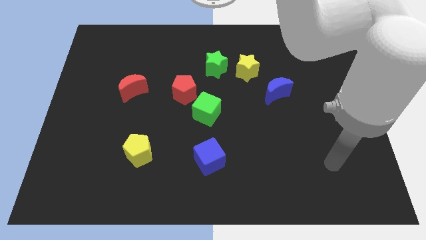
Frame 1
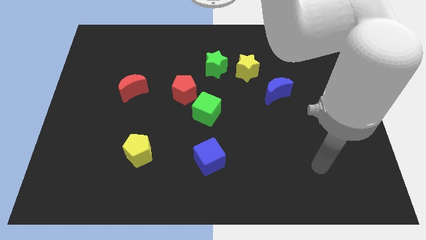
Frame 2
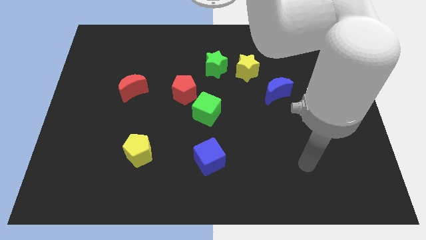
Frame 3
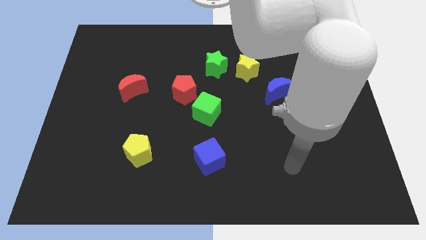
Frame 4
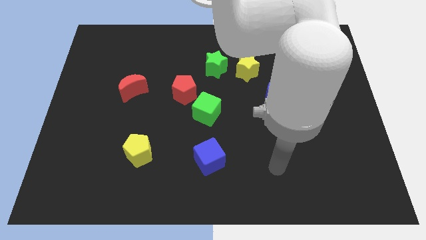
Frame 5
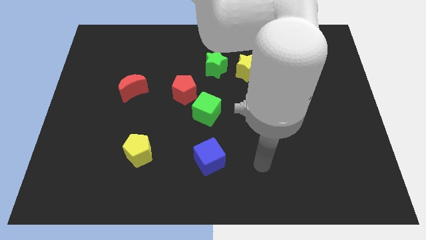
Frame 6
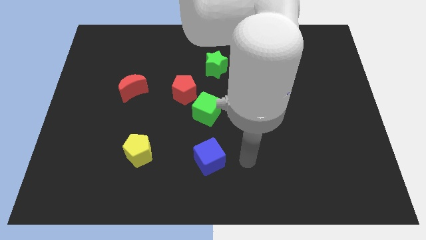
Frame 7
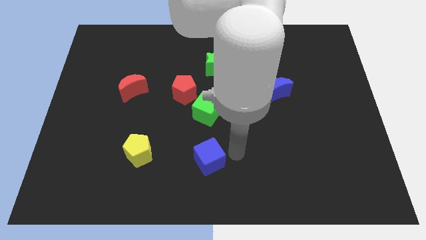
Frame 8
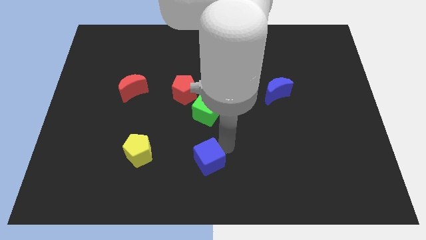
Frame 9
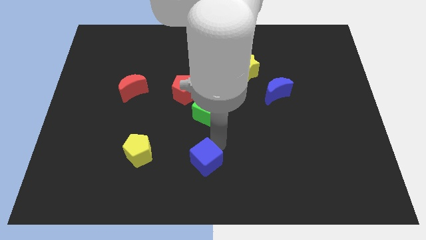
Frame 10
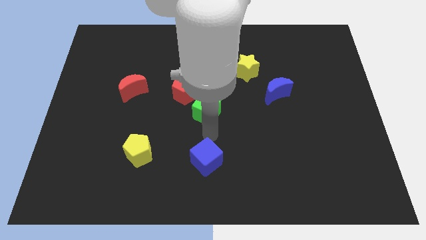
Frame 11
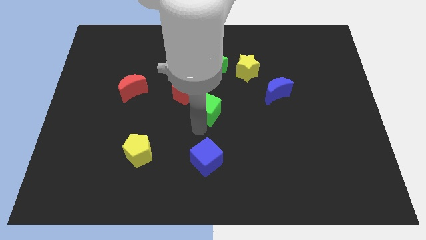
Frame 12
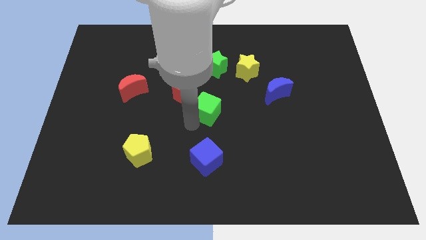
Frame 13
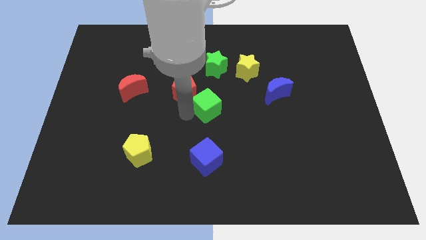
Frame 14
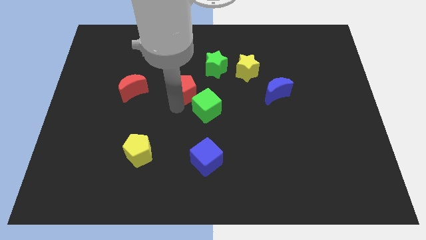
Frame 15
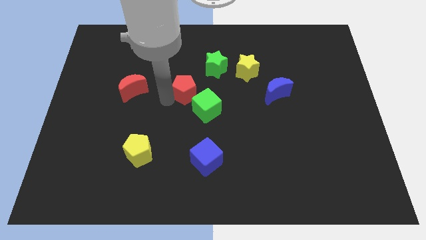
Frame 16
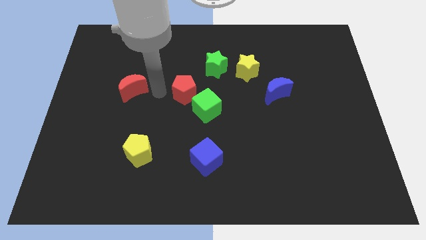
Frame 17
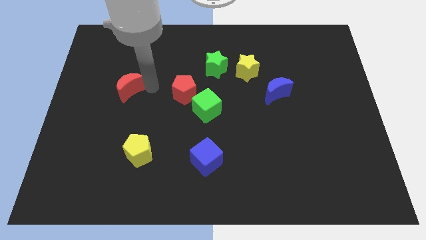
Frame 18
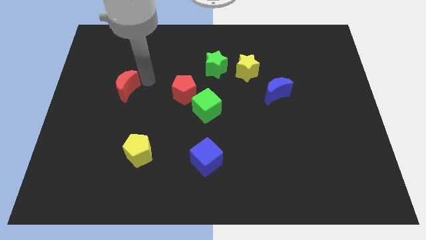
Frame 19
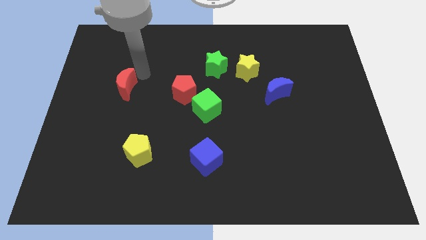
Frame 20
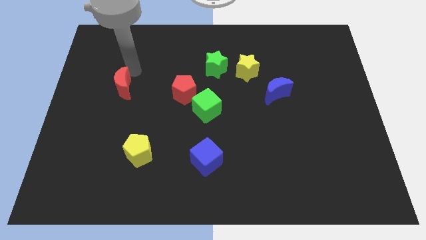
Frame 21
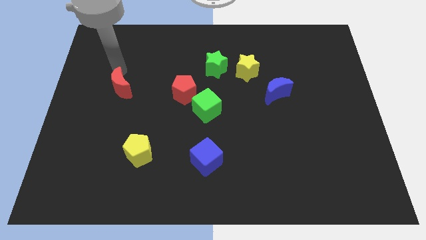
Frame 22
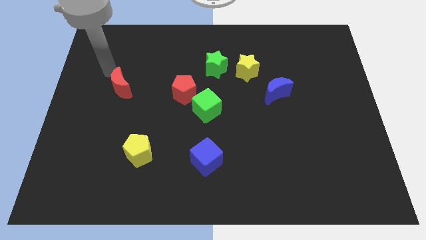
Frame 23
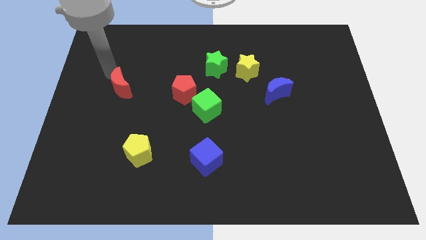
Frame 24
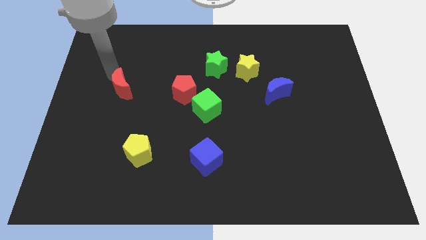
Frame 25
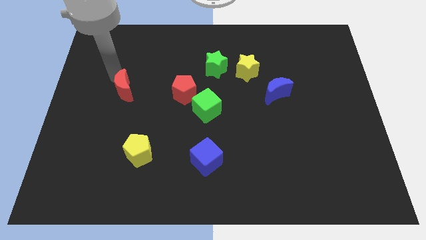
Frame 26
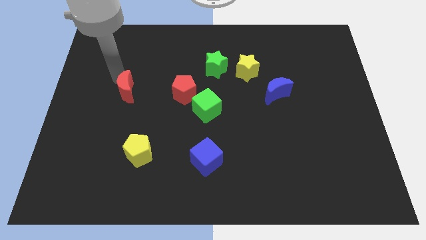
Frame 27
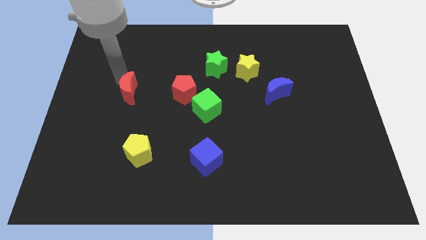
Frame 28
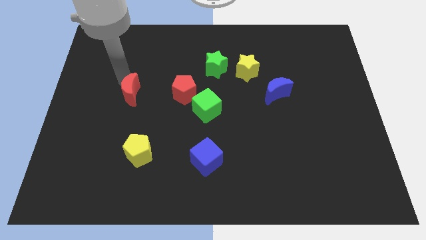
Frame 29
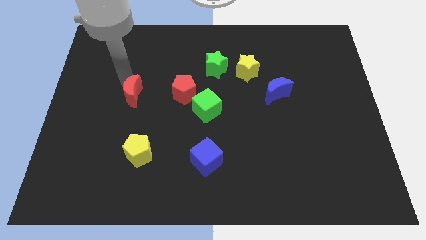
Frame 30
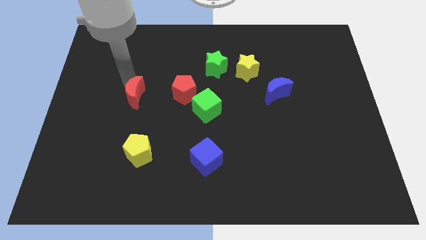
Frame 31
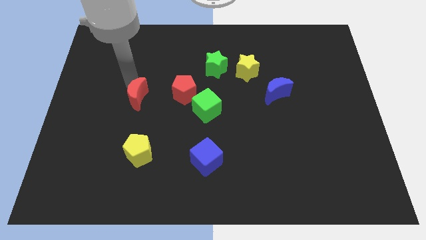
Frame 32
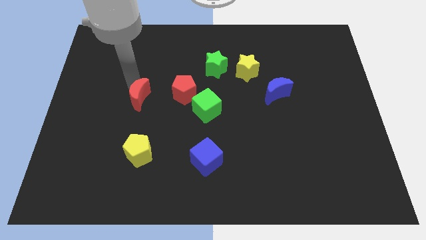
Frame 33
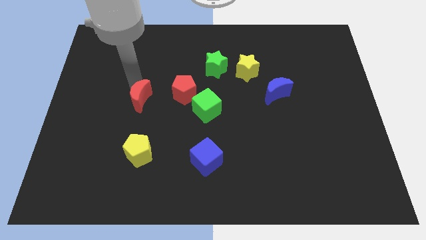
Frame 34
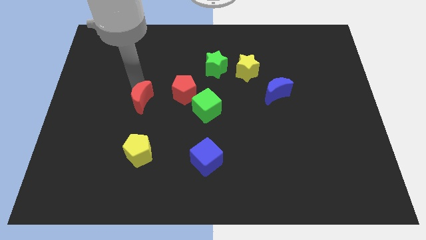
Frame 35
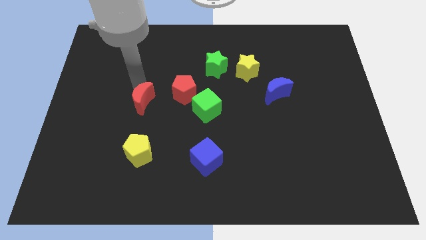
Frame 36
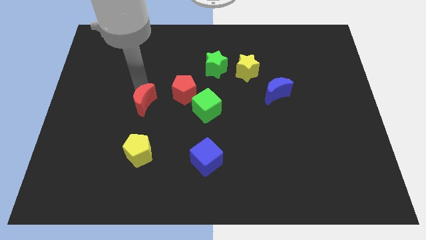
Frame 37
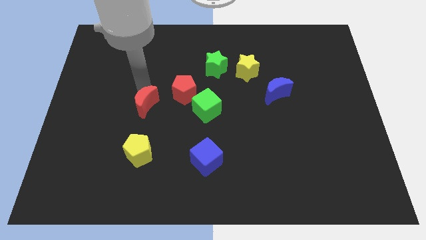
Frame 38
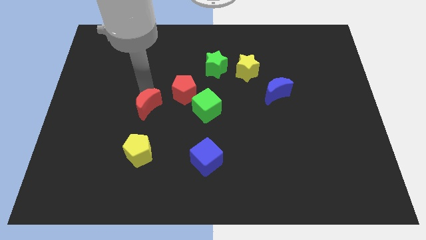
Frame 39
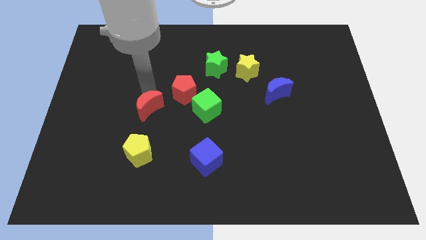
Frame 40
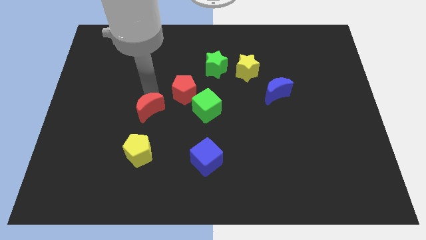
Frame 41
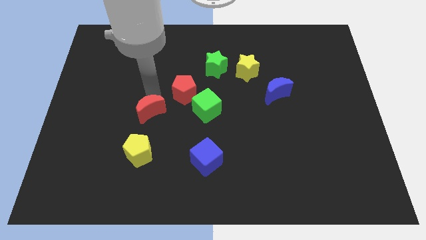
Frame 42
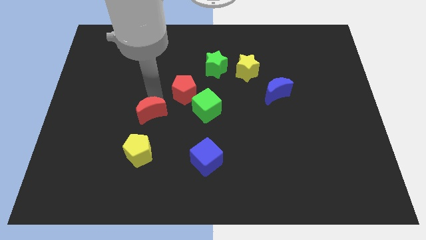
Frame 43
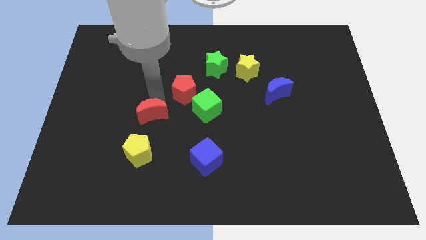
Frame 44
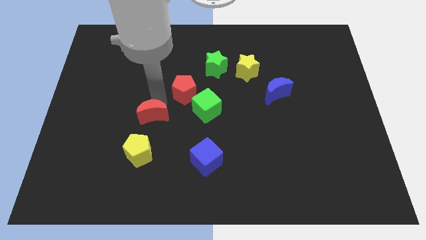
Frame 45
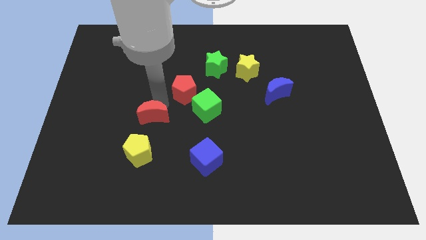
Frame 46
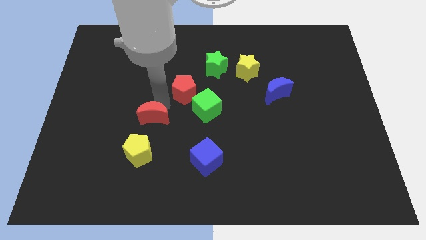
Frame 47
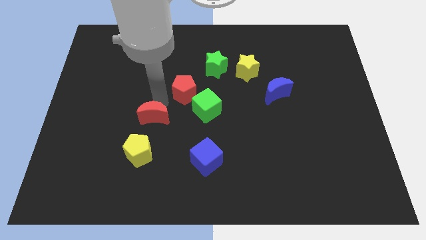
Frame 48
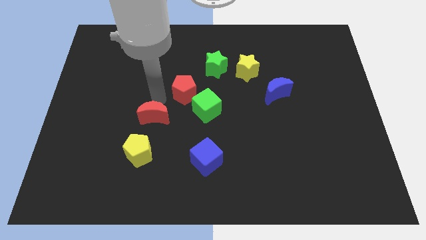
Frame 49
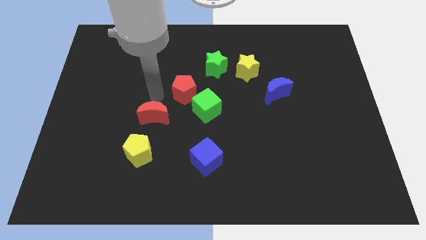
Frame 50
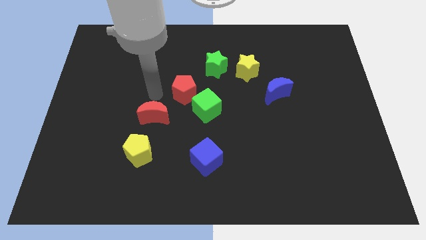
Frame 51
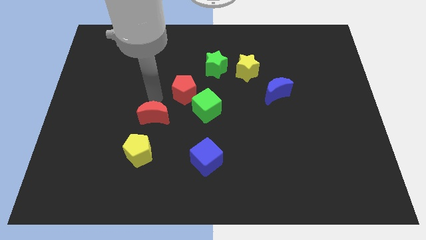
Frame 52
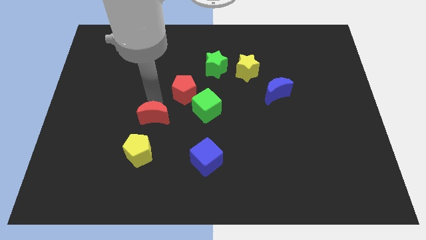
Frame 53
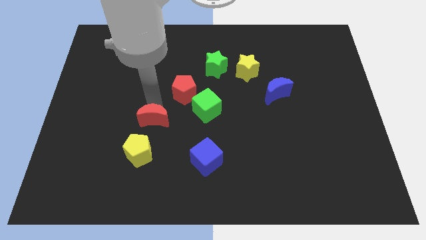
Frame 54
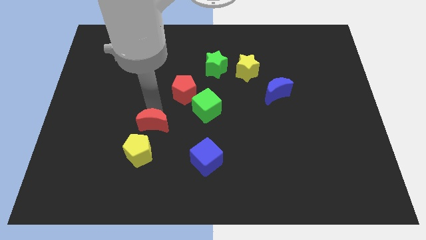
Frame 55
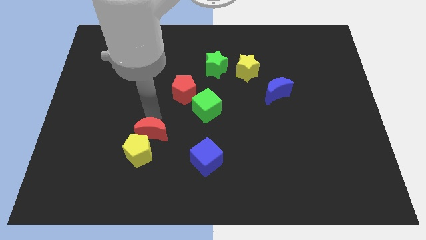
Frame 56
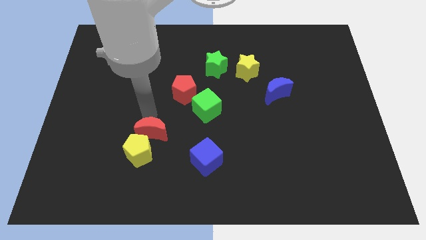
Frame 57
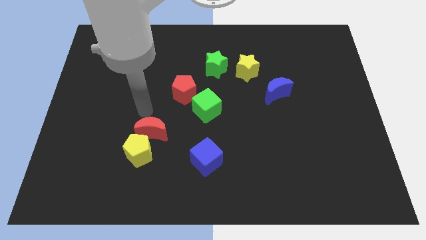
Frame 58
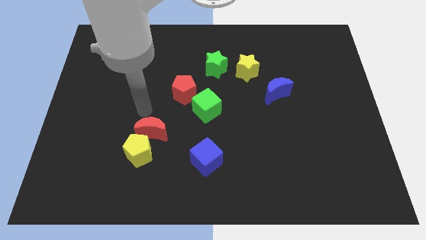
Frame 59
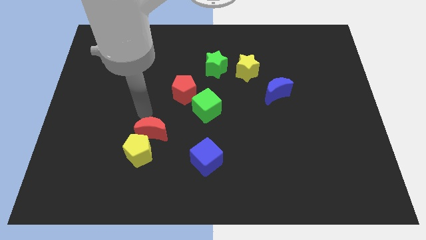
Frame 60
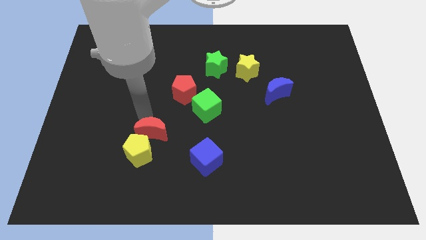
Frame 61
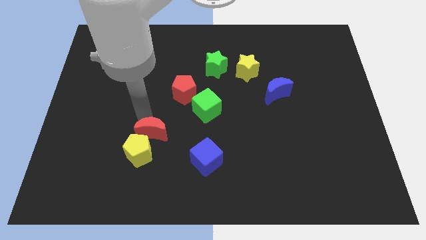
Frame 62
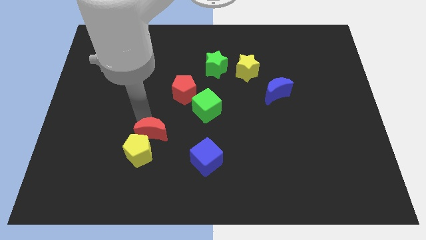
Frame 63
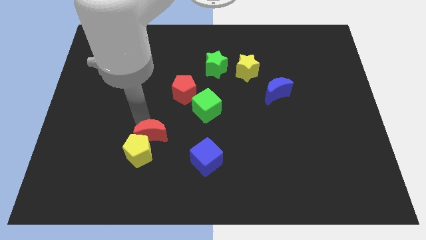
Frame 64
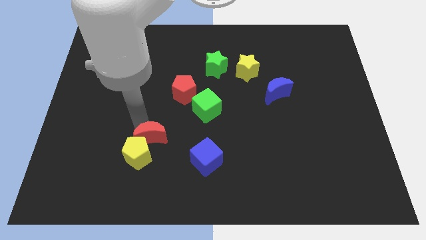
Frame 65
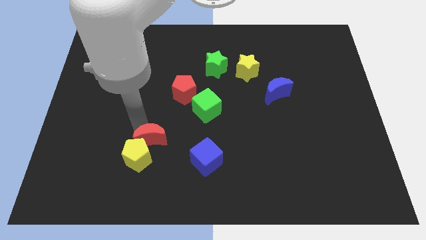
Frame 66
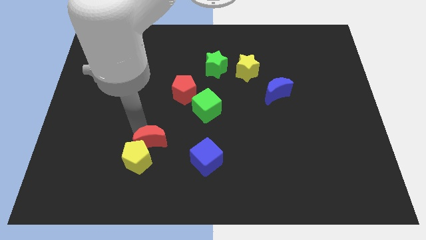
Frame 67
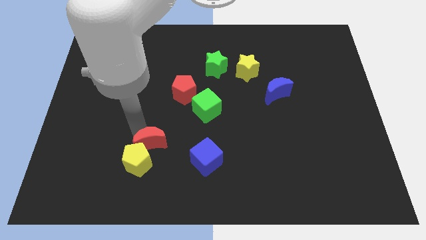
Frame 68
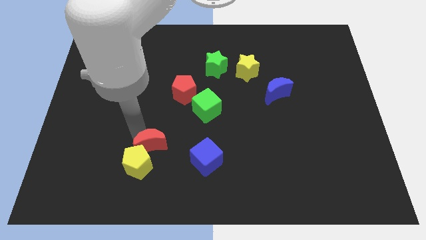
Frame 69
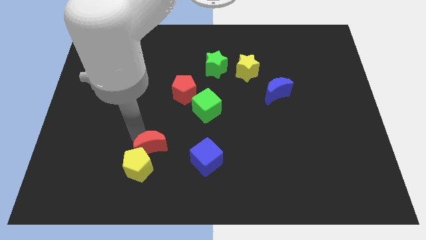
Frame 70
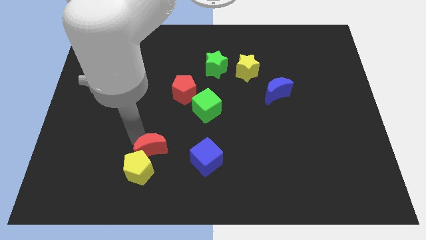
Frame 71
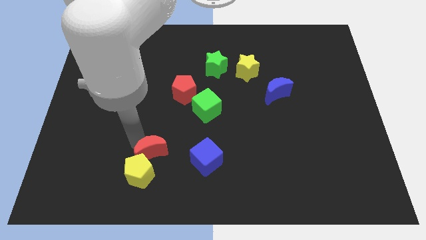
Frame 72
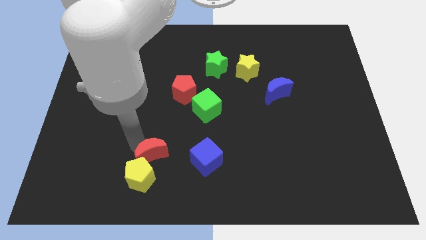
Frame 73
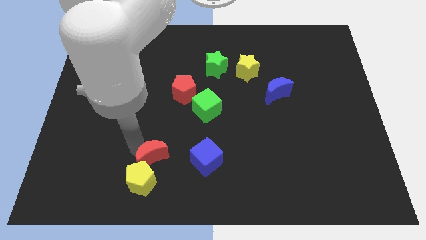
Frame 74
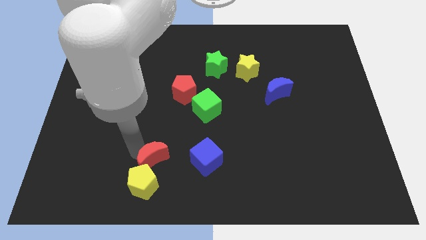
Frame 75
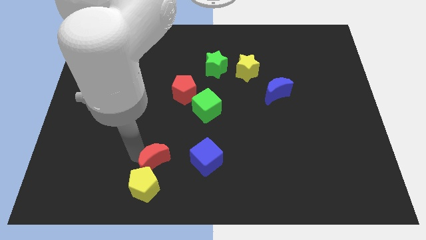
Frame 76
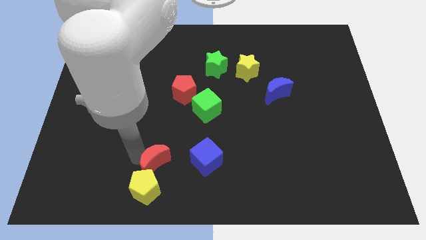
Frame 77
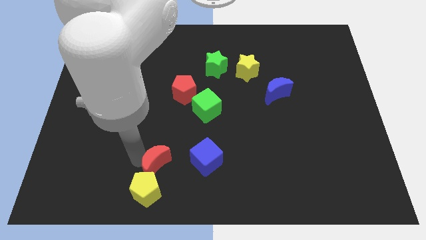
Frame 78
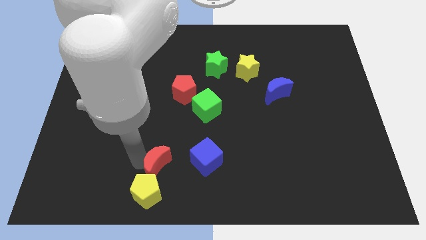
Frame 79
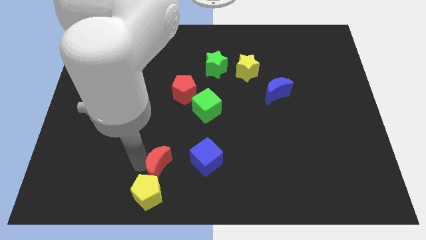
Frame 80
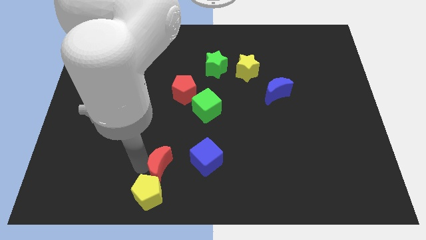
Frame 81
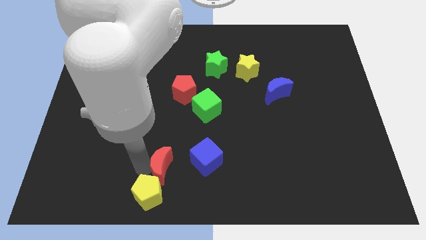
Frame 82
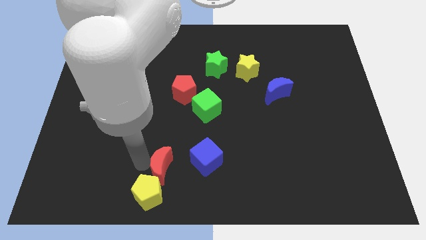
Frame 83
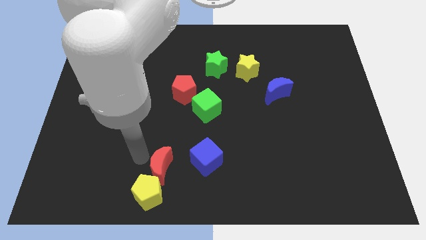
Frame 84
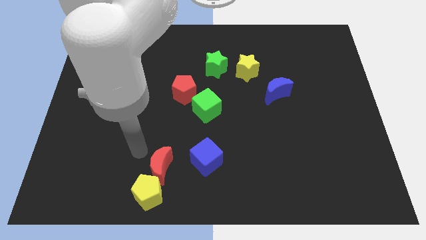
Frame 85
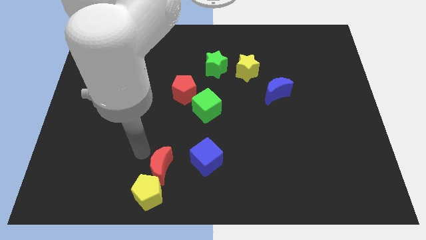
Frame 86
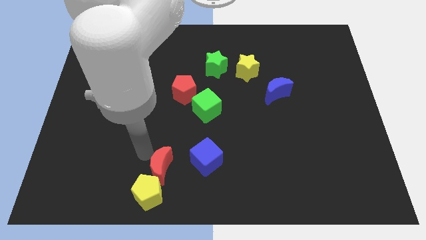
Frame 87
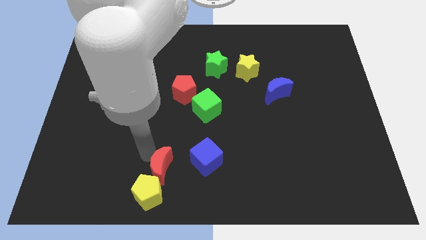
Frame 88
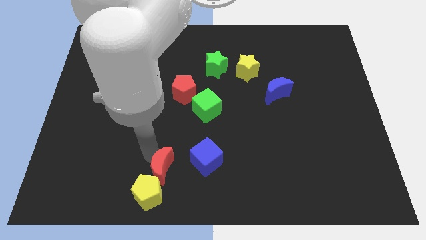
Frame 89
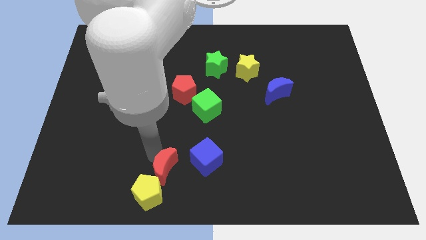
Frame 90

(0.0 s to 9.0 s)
slide the red moon to the bottom left of the blue cube
